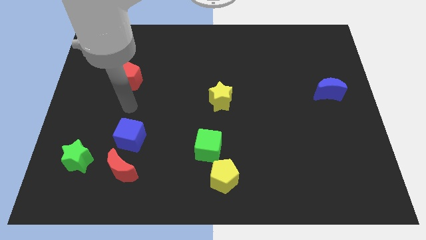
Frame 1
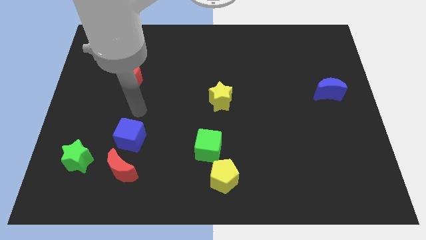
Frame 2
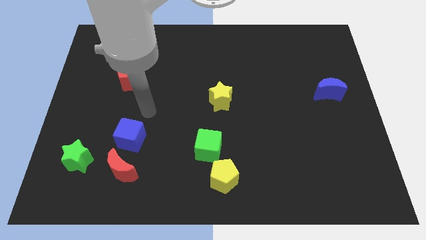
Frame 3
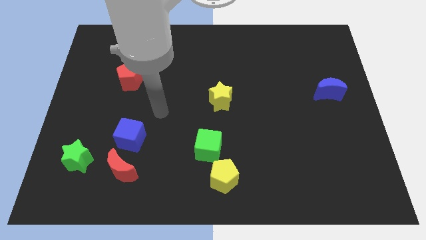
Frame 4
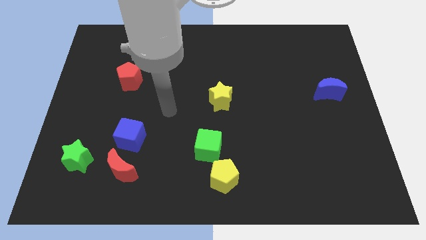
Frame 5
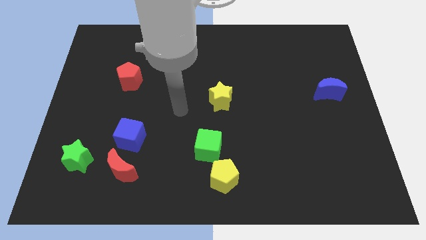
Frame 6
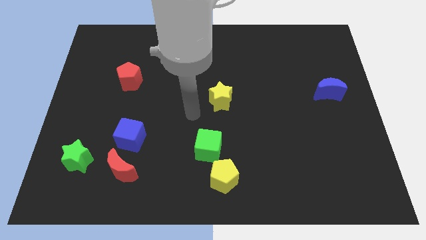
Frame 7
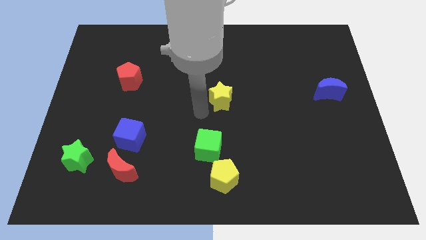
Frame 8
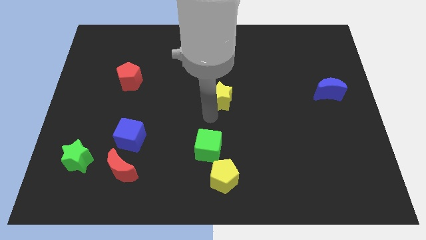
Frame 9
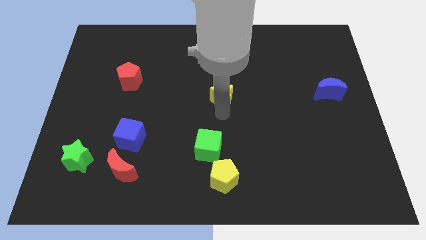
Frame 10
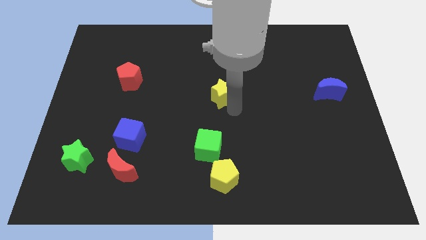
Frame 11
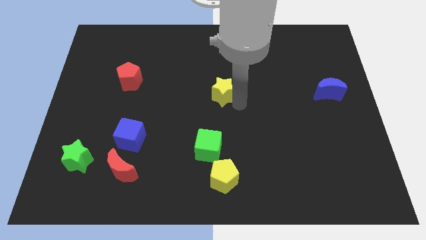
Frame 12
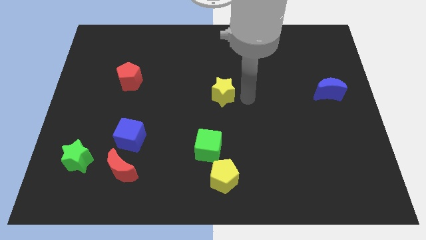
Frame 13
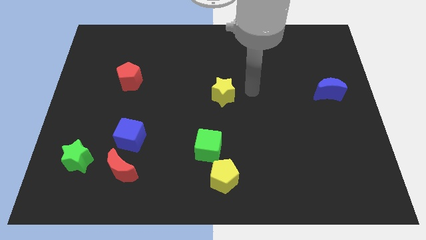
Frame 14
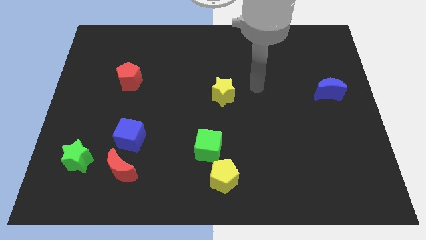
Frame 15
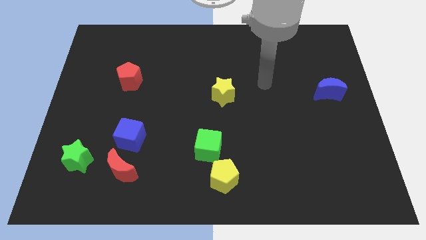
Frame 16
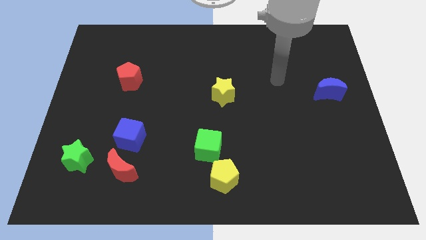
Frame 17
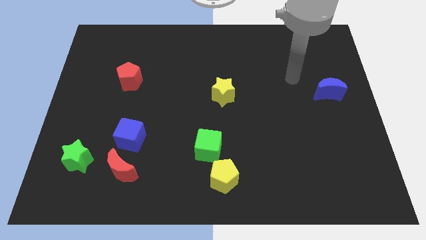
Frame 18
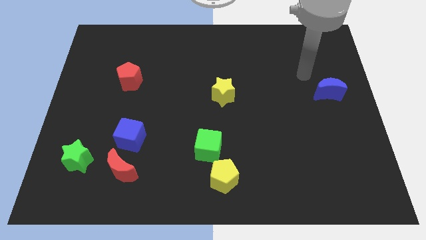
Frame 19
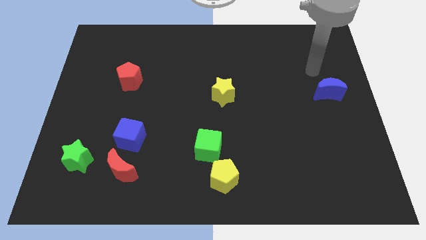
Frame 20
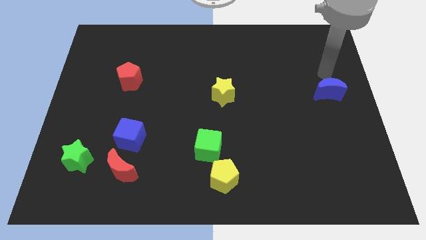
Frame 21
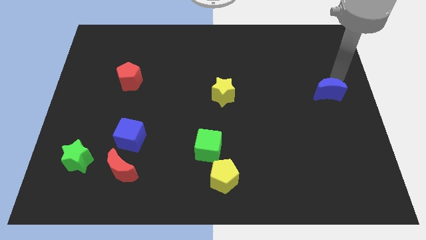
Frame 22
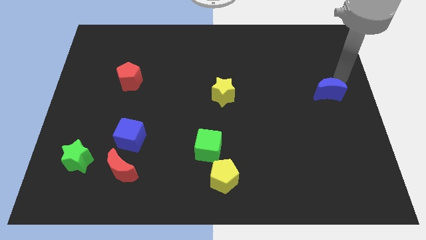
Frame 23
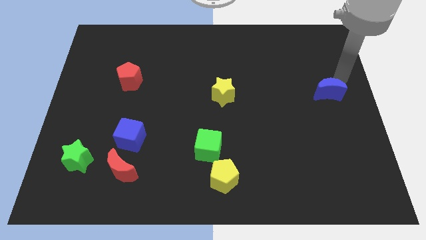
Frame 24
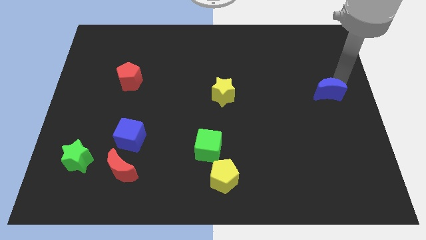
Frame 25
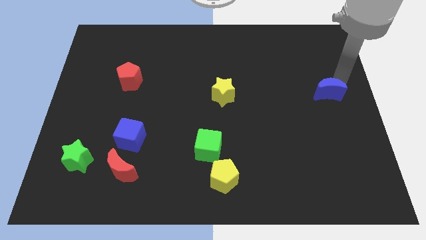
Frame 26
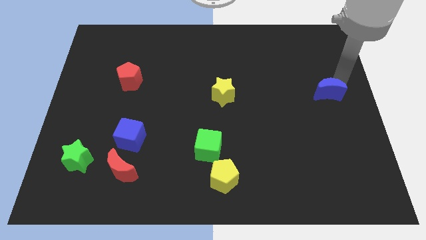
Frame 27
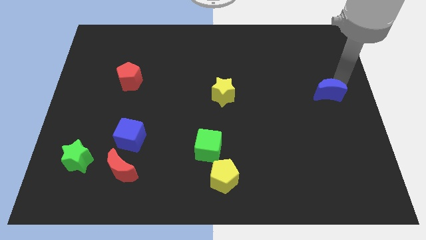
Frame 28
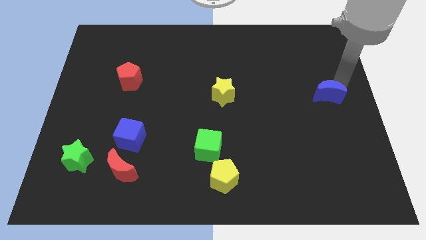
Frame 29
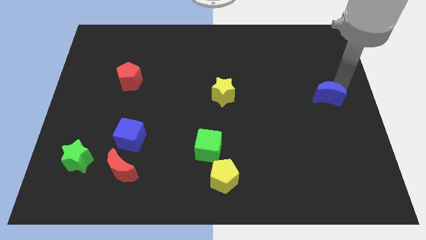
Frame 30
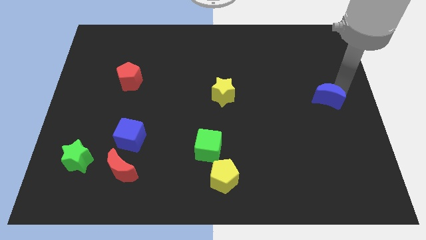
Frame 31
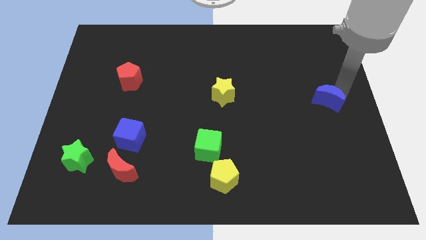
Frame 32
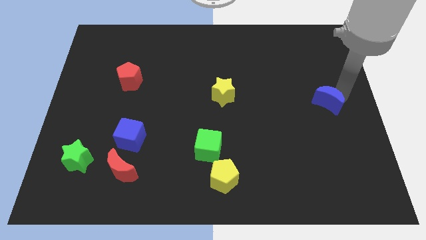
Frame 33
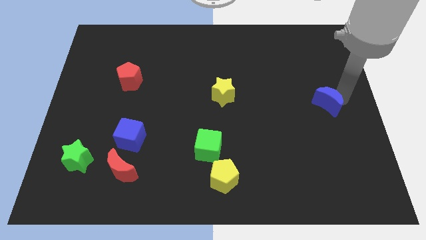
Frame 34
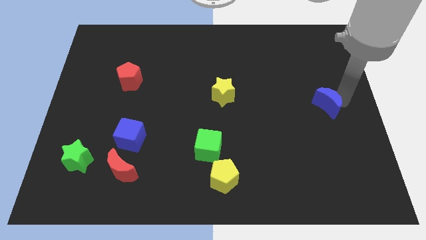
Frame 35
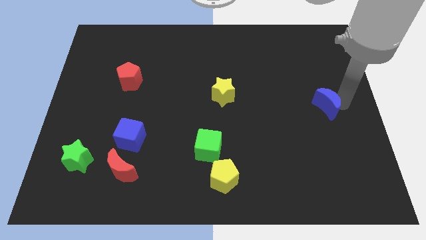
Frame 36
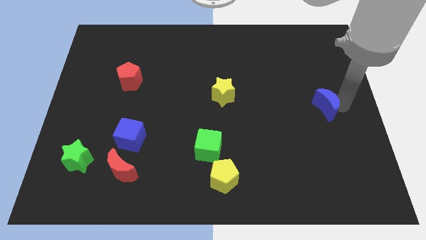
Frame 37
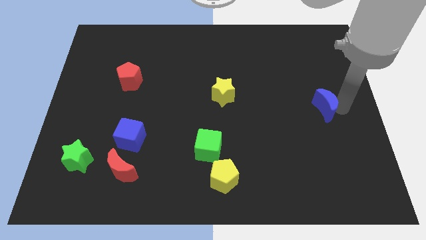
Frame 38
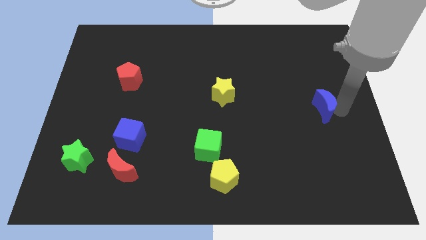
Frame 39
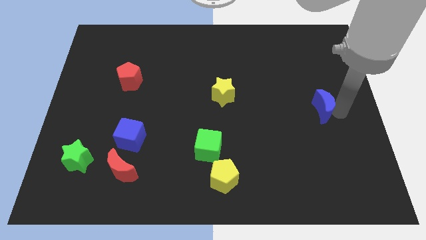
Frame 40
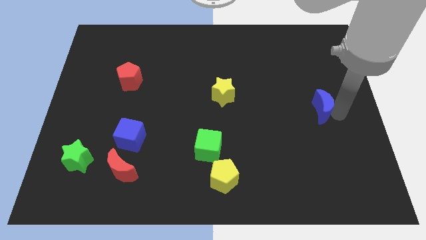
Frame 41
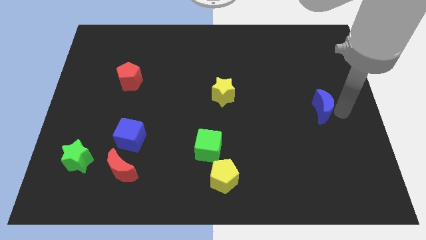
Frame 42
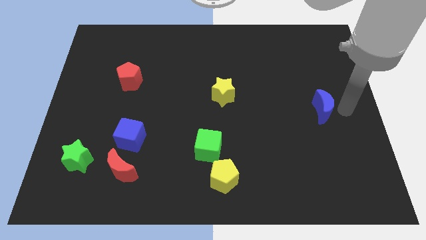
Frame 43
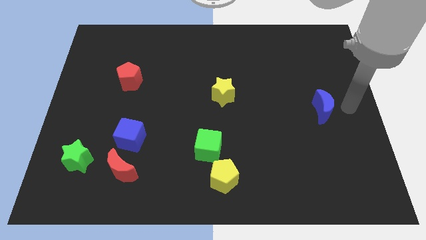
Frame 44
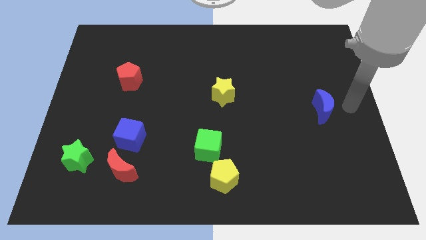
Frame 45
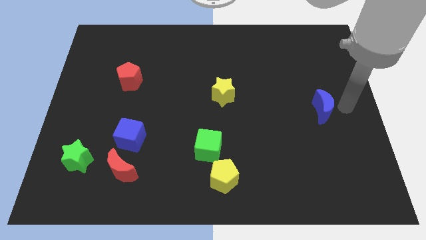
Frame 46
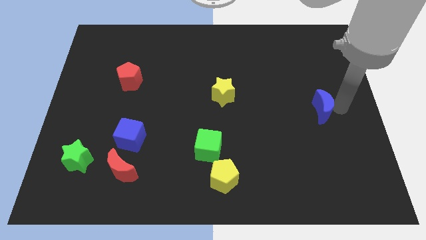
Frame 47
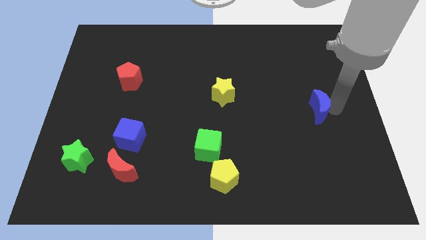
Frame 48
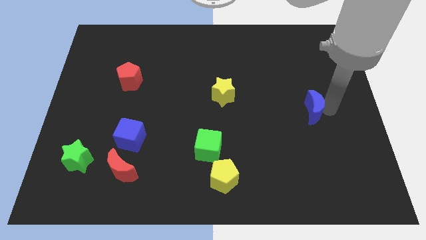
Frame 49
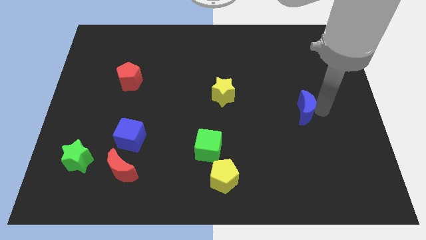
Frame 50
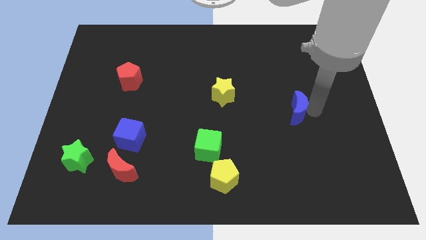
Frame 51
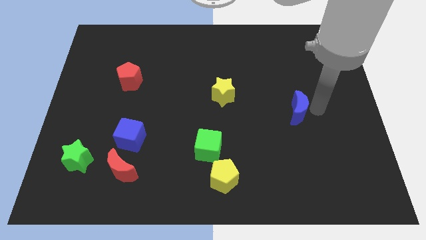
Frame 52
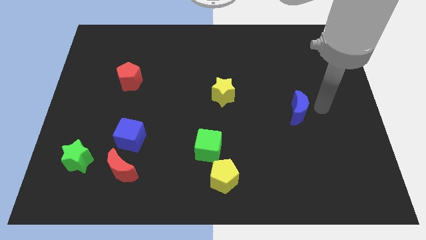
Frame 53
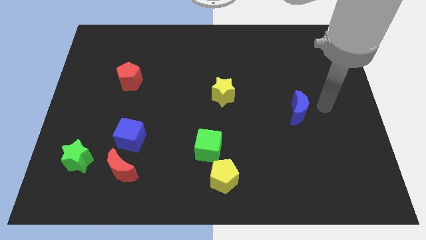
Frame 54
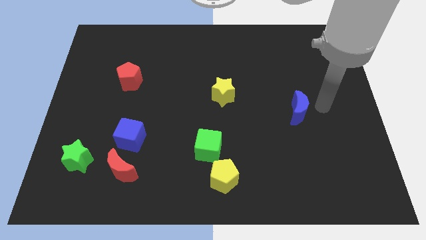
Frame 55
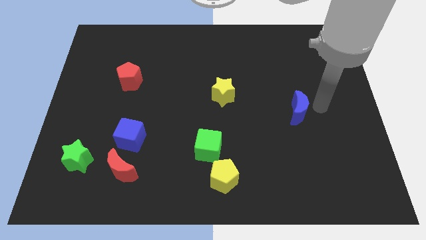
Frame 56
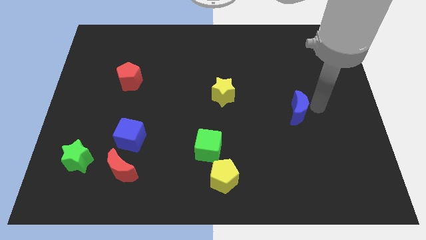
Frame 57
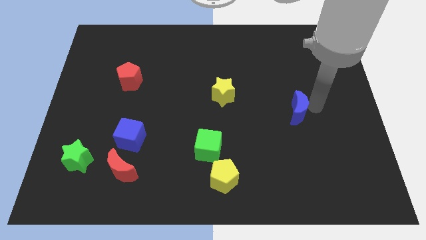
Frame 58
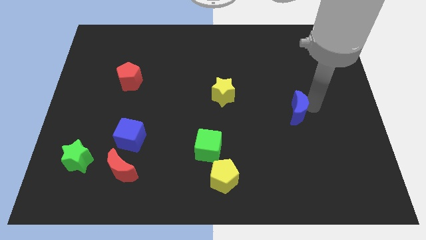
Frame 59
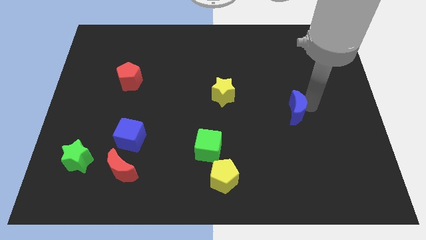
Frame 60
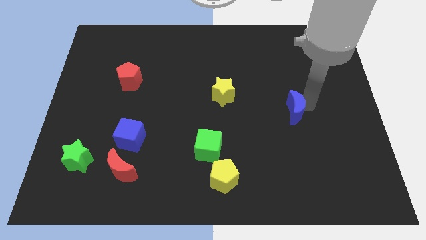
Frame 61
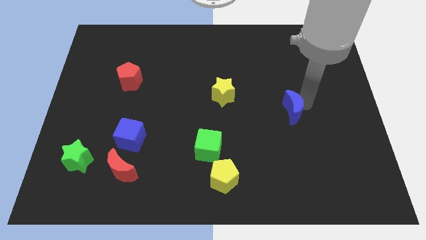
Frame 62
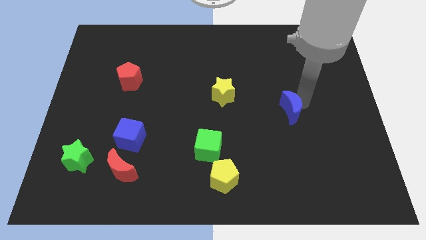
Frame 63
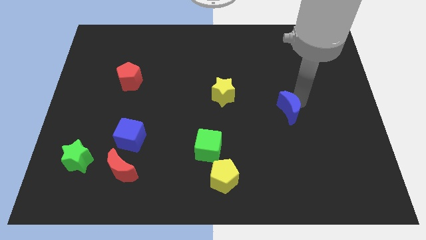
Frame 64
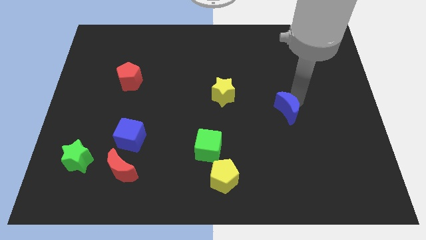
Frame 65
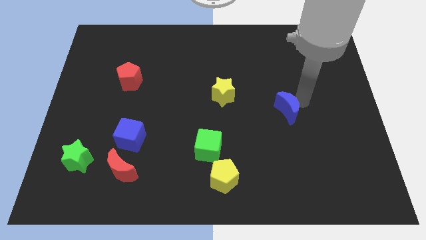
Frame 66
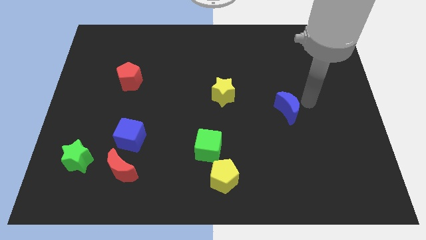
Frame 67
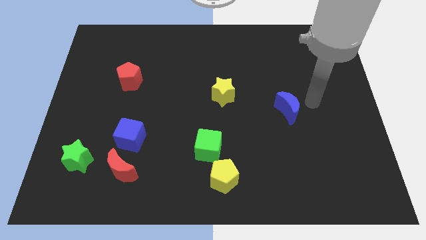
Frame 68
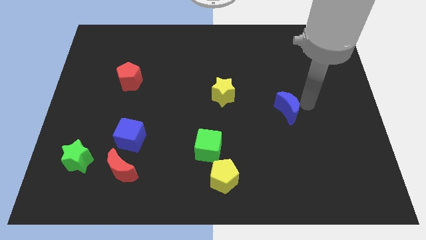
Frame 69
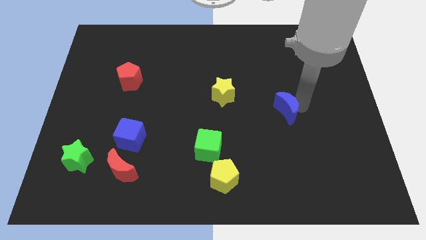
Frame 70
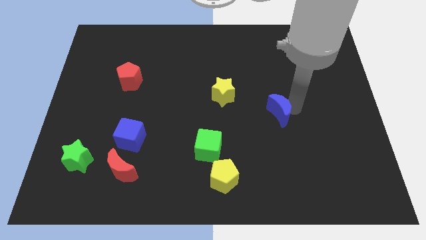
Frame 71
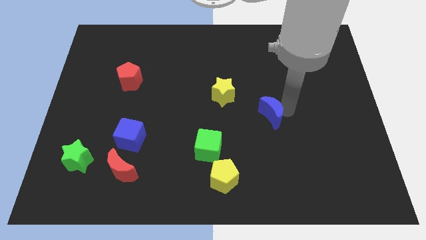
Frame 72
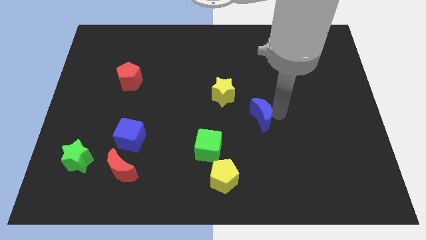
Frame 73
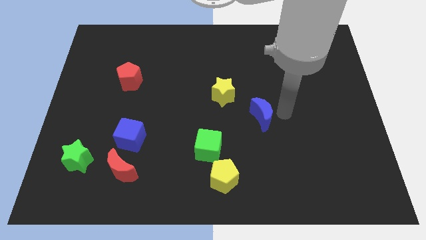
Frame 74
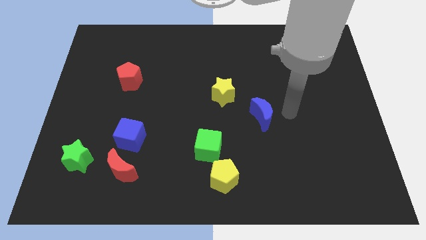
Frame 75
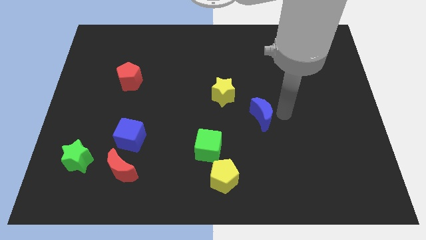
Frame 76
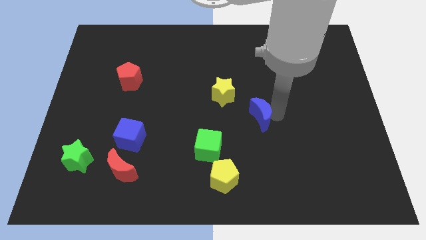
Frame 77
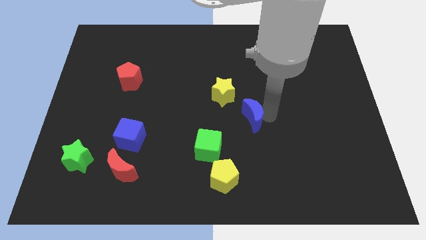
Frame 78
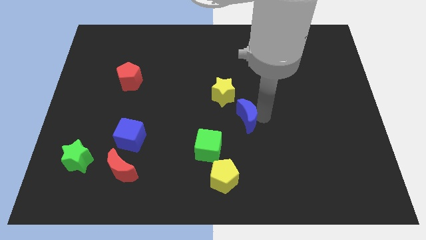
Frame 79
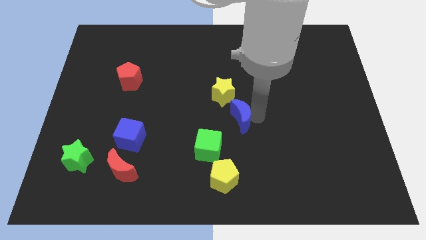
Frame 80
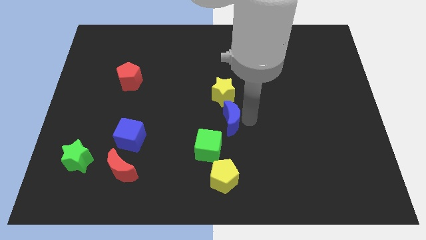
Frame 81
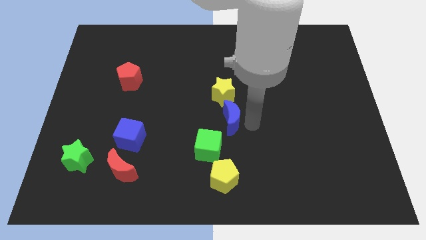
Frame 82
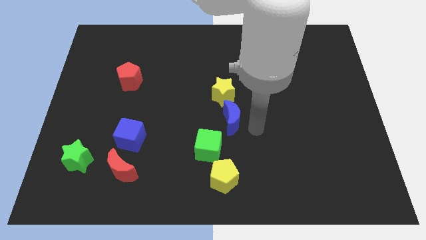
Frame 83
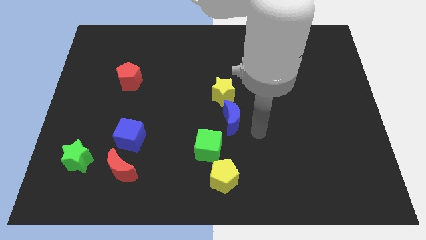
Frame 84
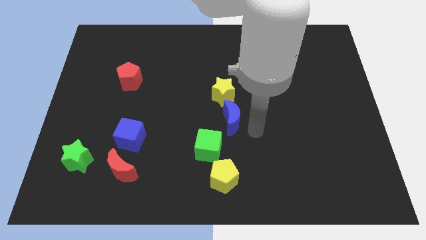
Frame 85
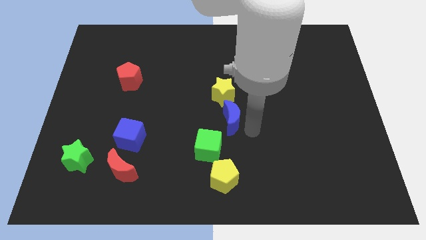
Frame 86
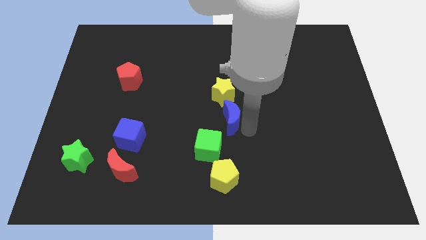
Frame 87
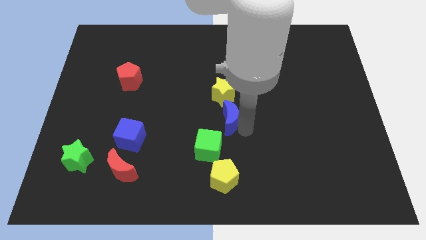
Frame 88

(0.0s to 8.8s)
put the blue moon above the green cube
